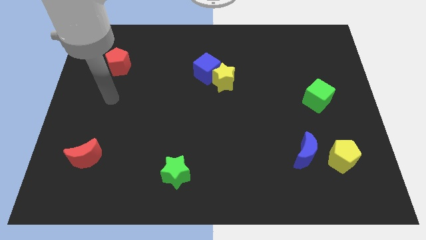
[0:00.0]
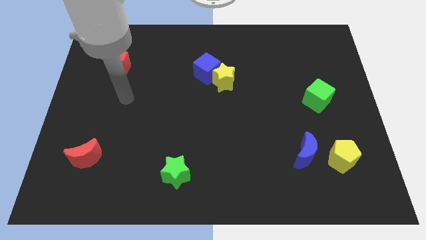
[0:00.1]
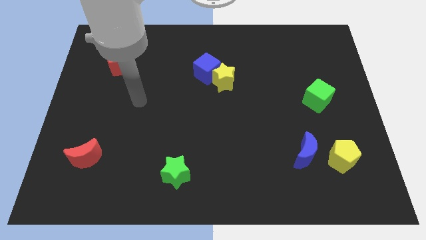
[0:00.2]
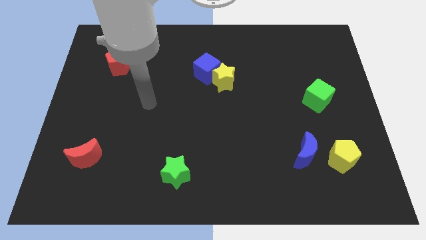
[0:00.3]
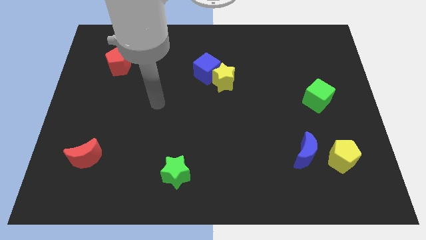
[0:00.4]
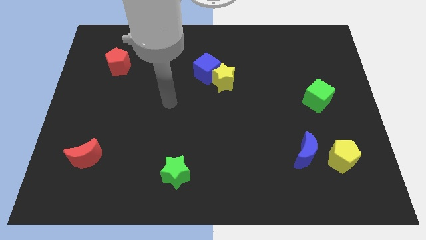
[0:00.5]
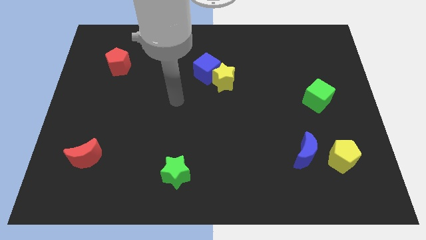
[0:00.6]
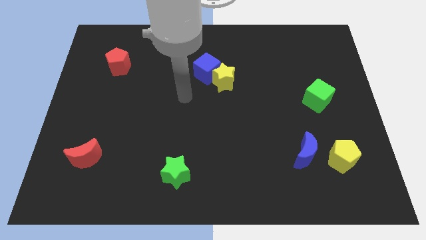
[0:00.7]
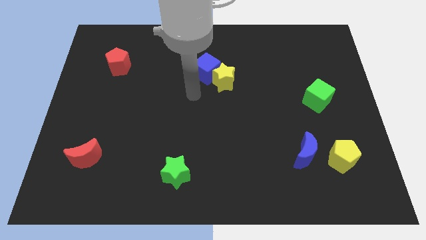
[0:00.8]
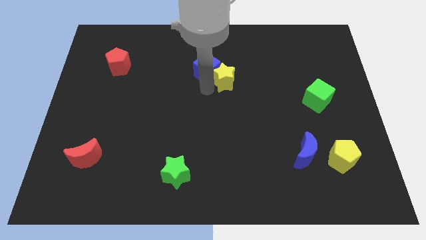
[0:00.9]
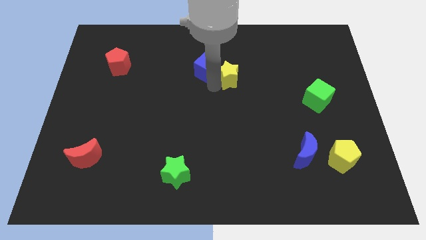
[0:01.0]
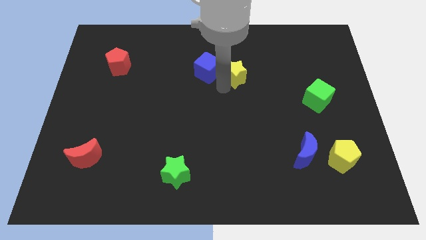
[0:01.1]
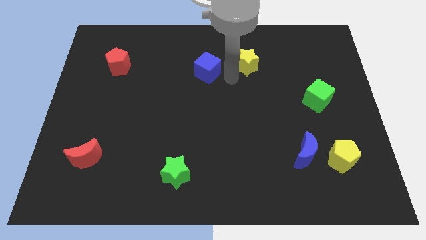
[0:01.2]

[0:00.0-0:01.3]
move the blue cube away from the yellow star

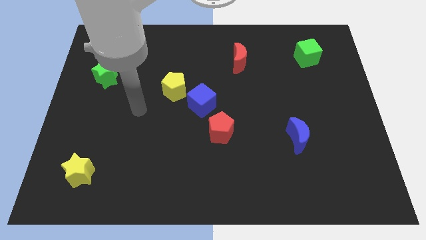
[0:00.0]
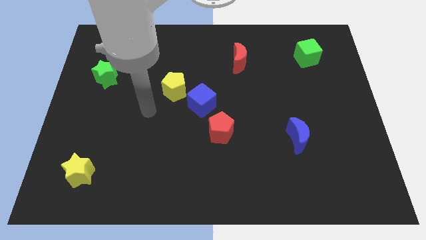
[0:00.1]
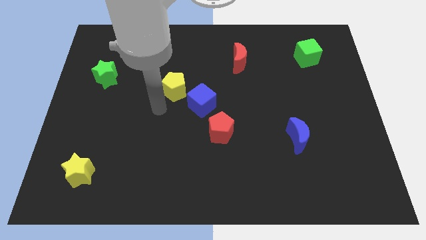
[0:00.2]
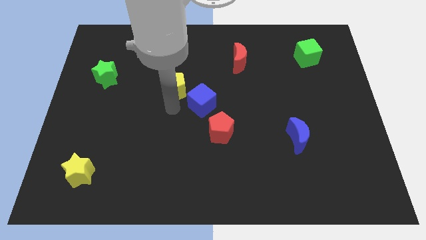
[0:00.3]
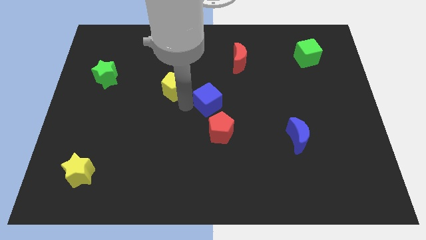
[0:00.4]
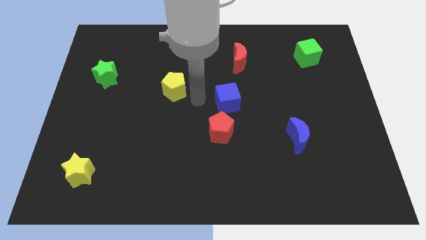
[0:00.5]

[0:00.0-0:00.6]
separate the yellow pentagon from the blue cube

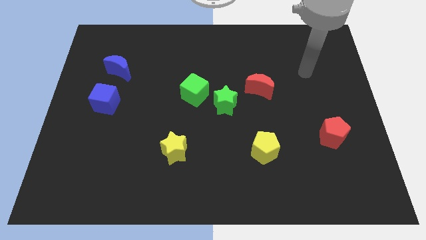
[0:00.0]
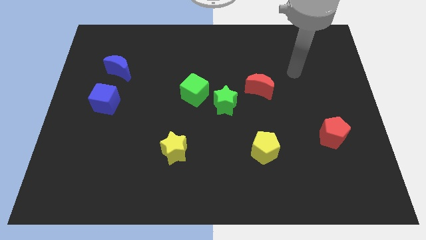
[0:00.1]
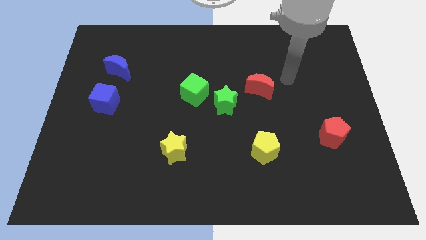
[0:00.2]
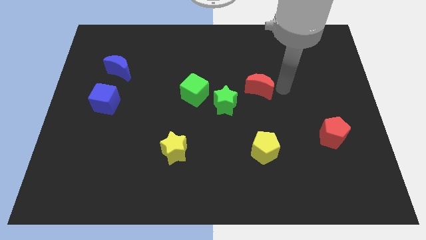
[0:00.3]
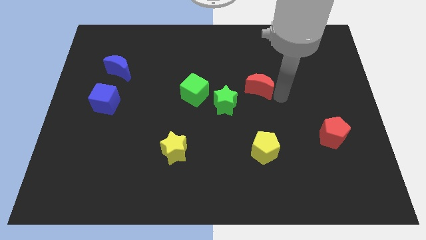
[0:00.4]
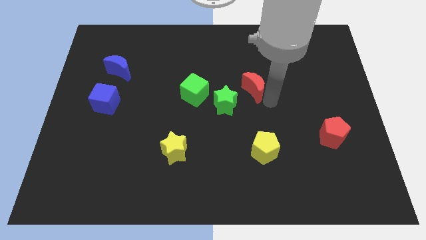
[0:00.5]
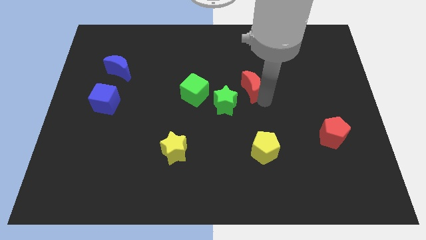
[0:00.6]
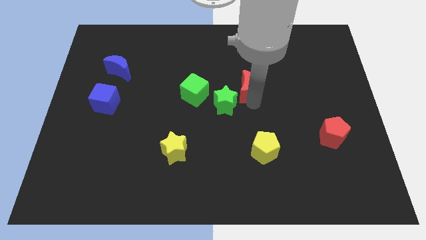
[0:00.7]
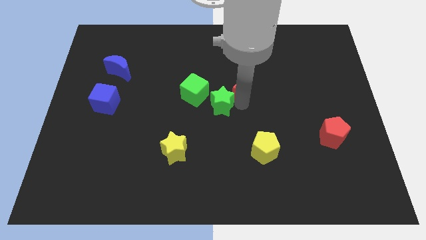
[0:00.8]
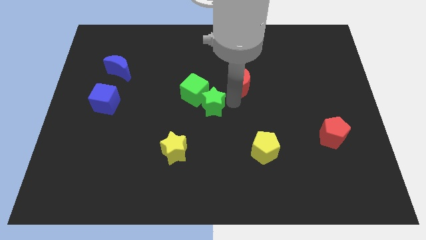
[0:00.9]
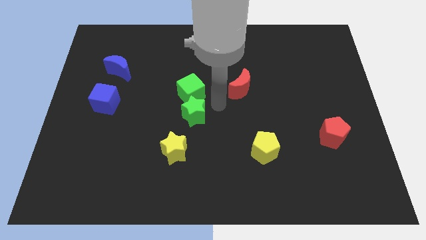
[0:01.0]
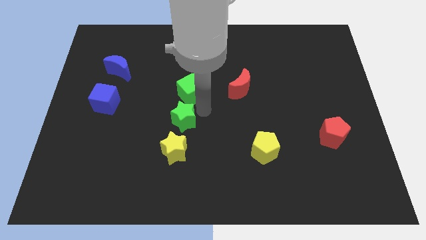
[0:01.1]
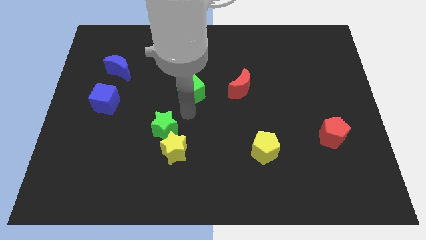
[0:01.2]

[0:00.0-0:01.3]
move the green cube away from the green star

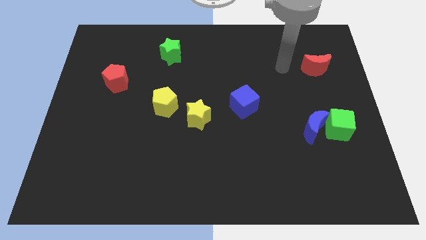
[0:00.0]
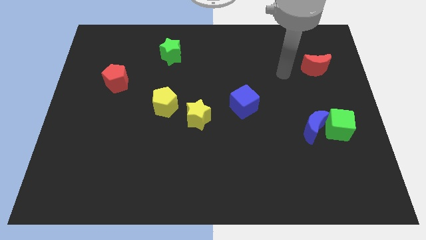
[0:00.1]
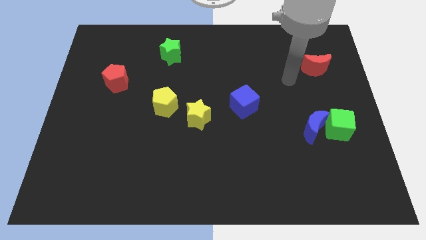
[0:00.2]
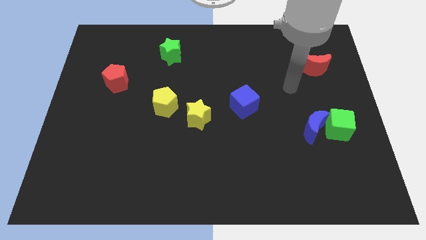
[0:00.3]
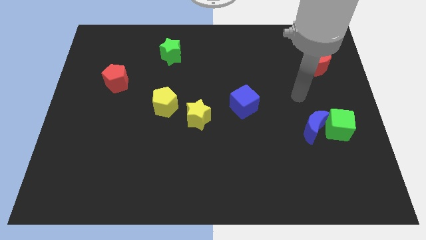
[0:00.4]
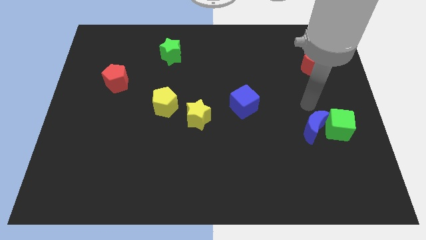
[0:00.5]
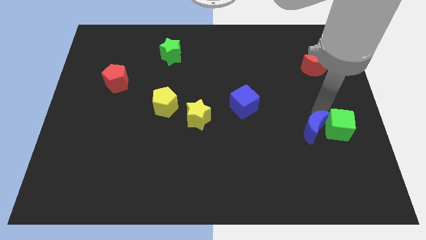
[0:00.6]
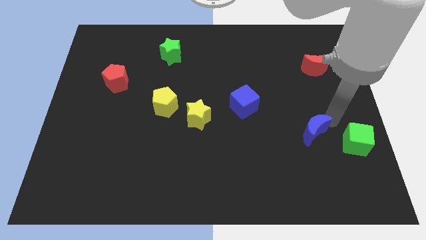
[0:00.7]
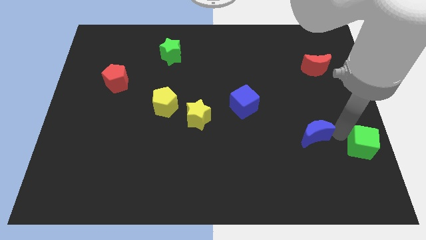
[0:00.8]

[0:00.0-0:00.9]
move the blue moon away from the green cube

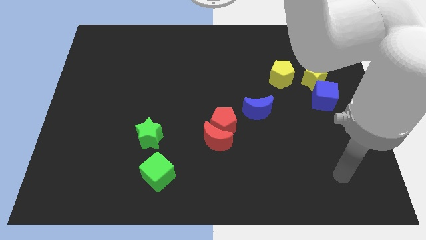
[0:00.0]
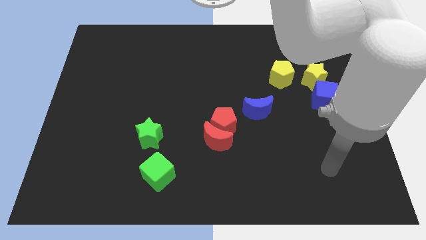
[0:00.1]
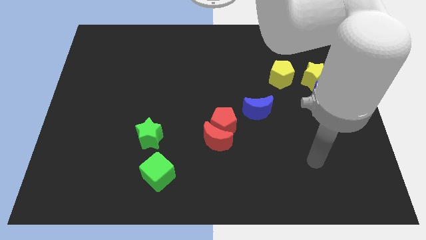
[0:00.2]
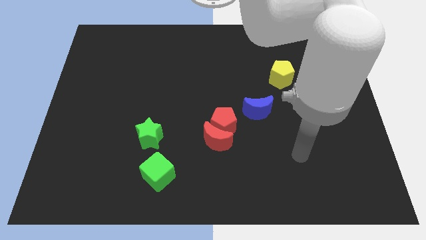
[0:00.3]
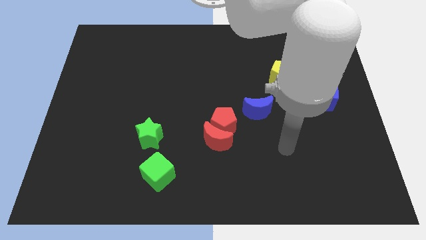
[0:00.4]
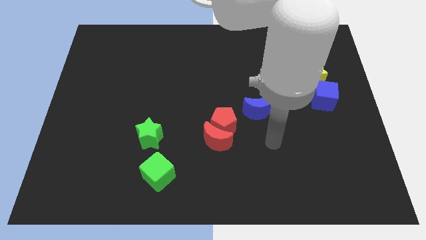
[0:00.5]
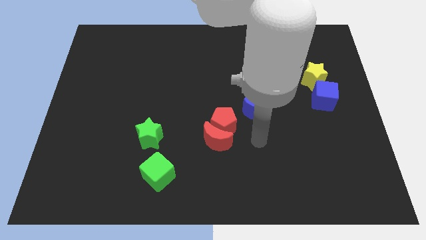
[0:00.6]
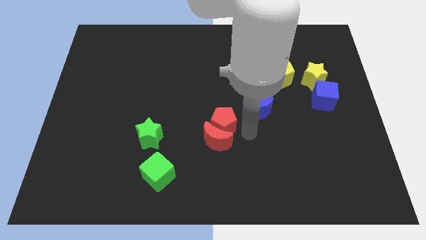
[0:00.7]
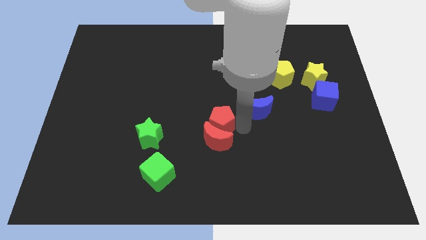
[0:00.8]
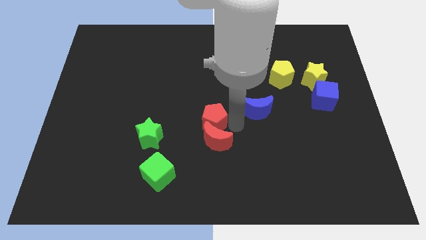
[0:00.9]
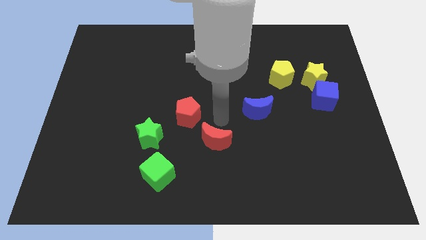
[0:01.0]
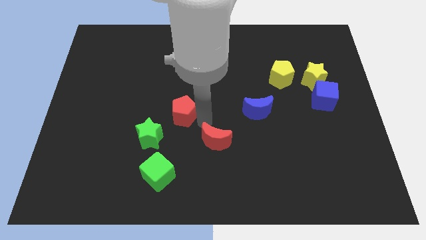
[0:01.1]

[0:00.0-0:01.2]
separate the red moon from the red pentagon

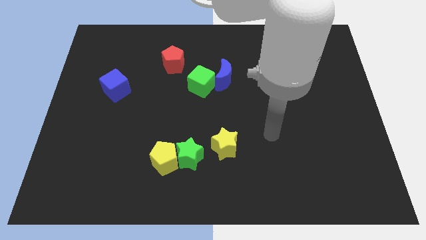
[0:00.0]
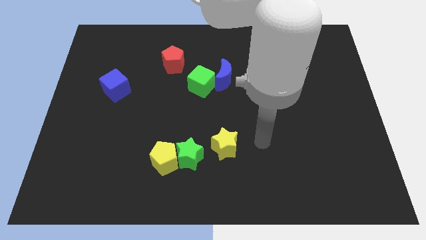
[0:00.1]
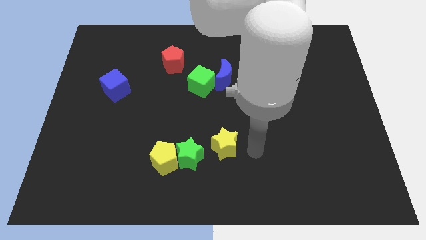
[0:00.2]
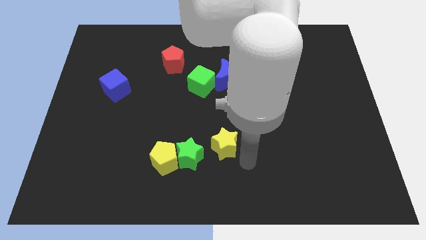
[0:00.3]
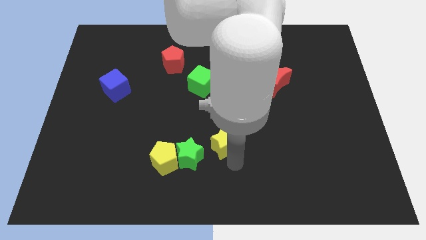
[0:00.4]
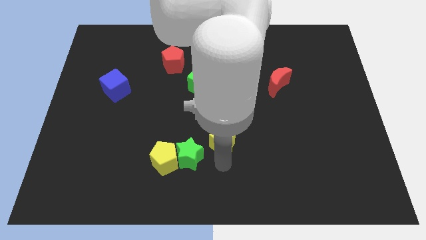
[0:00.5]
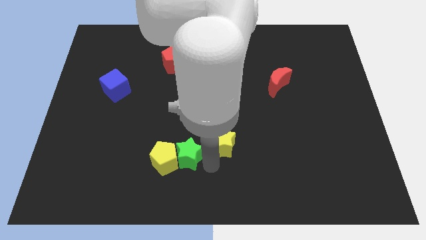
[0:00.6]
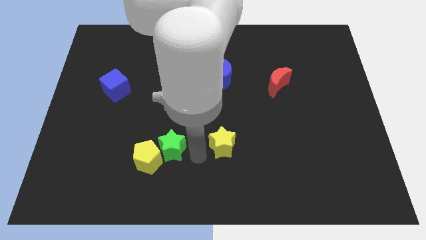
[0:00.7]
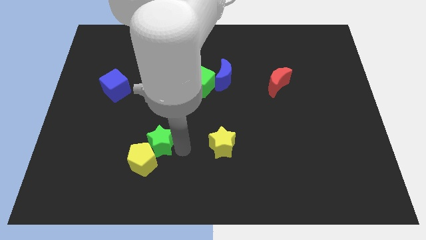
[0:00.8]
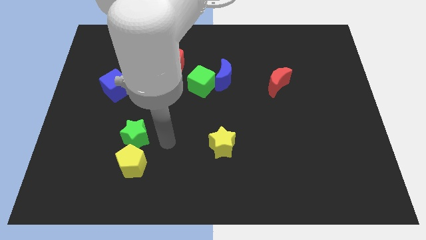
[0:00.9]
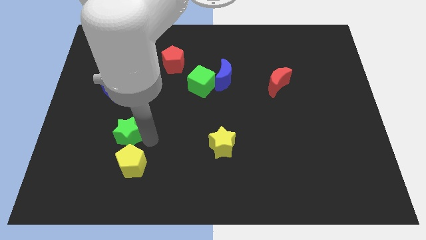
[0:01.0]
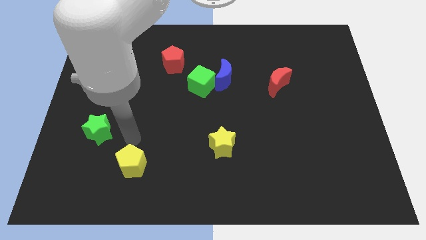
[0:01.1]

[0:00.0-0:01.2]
move the yellow pentagon away from the green star

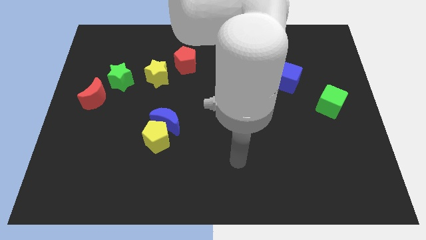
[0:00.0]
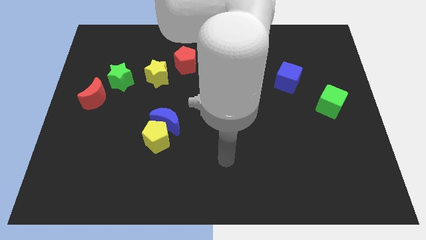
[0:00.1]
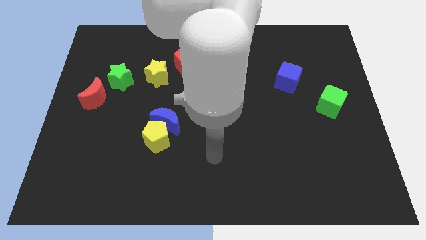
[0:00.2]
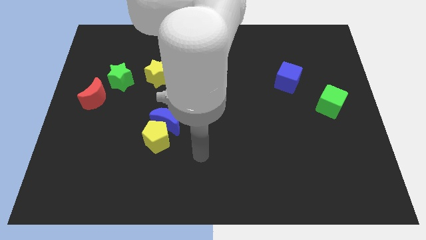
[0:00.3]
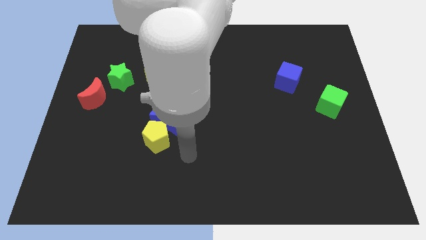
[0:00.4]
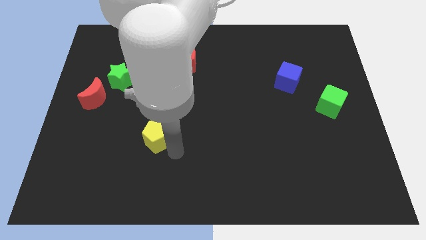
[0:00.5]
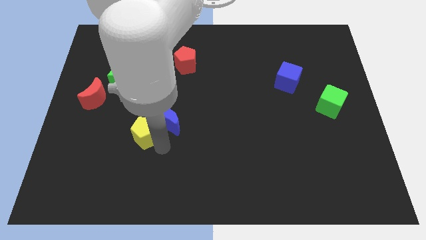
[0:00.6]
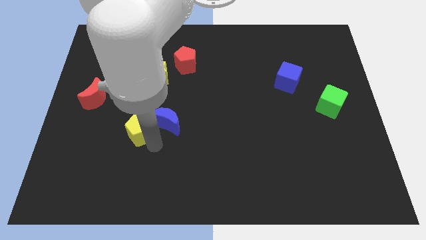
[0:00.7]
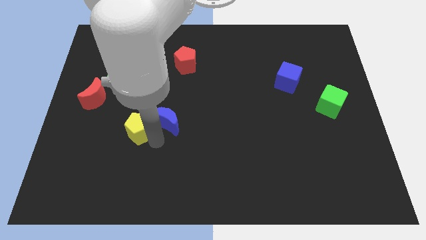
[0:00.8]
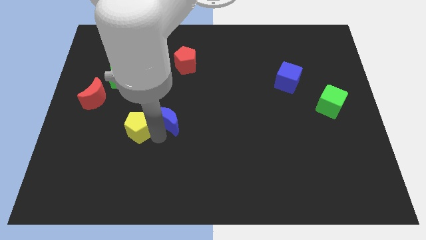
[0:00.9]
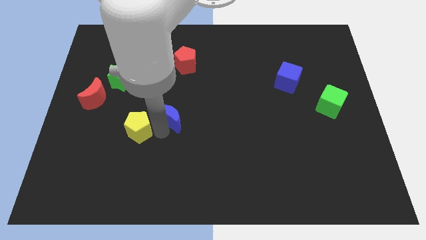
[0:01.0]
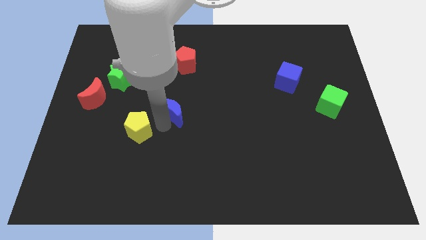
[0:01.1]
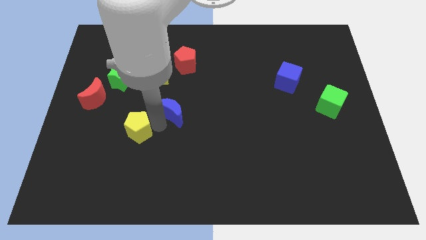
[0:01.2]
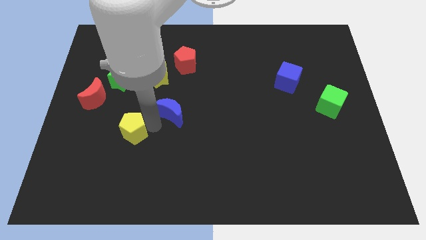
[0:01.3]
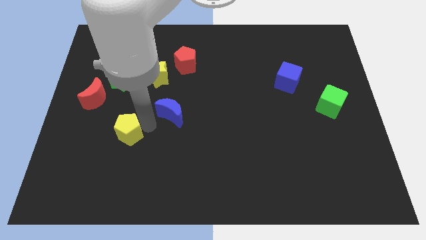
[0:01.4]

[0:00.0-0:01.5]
separate the blue moon from the yellow pentagon

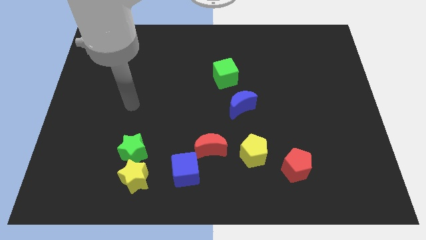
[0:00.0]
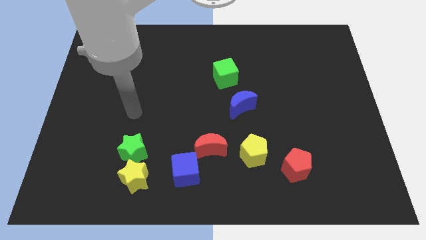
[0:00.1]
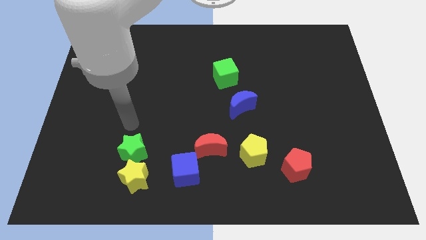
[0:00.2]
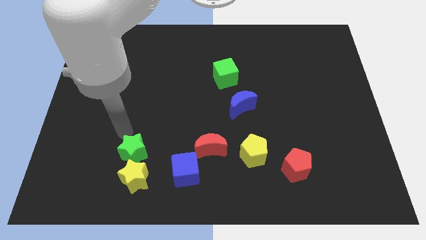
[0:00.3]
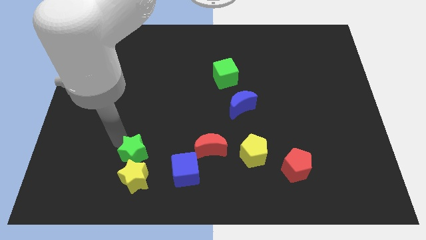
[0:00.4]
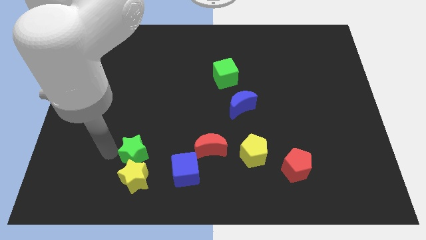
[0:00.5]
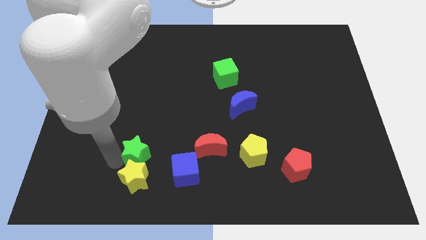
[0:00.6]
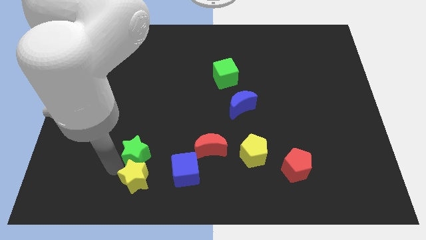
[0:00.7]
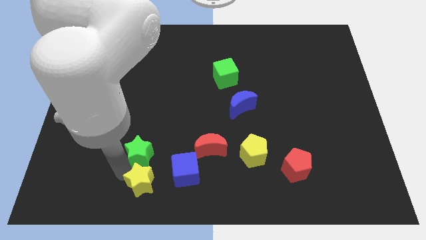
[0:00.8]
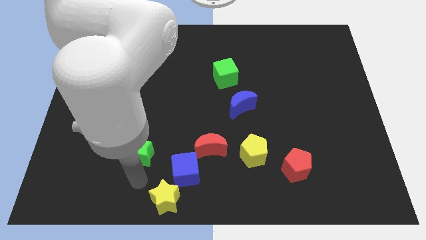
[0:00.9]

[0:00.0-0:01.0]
pull the green star apart from the yellow star

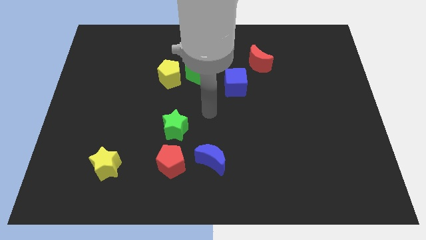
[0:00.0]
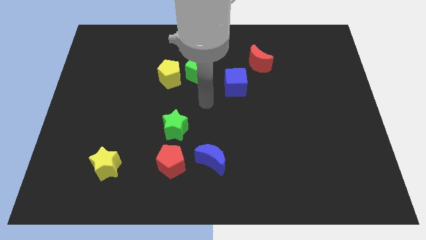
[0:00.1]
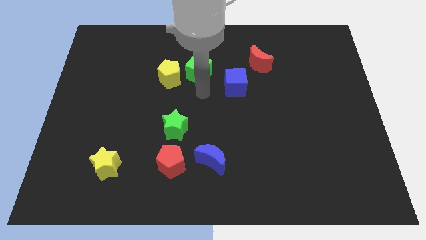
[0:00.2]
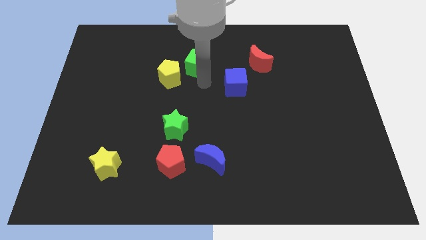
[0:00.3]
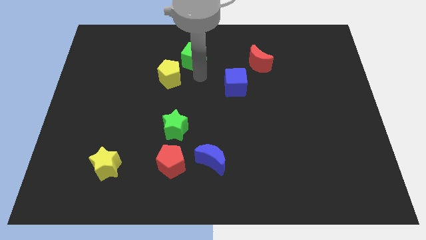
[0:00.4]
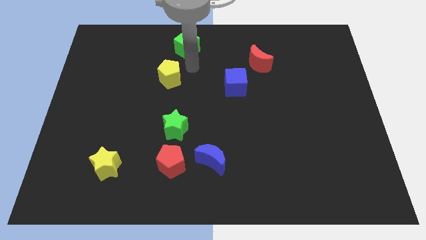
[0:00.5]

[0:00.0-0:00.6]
pull the yellow pentagon apart from the green cube
